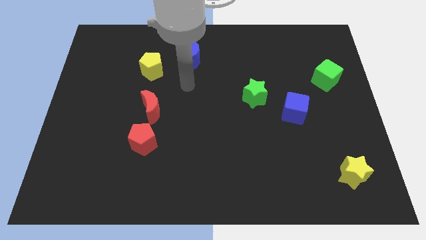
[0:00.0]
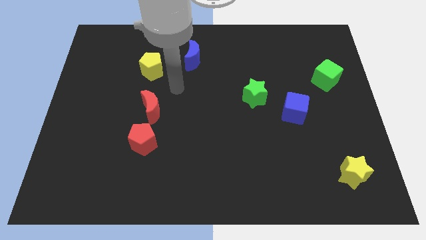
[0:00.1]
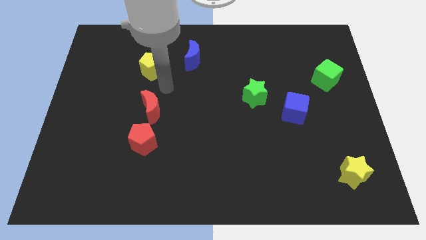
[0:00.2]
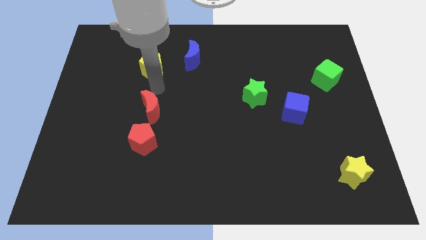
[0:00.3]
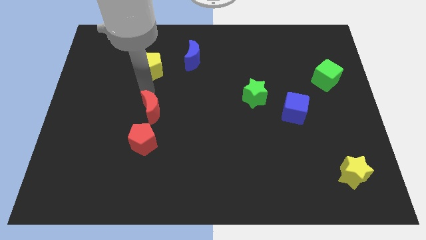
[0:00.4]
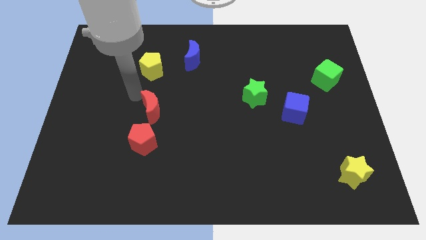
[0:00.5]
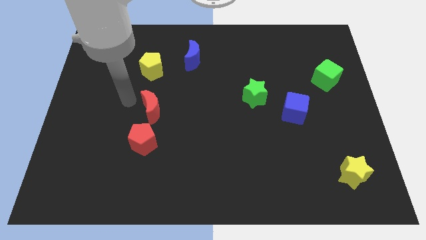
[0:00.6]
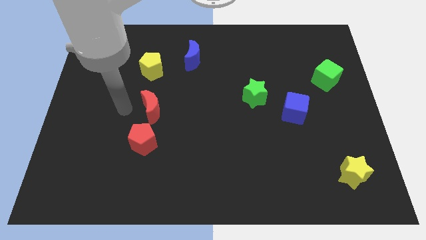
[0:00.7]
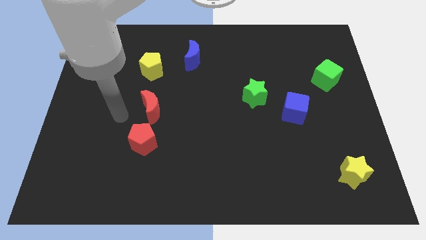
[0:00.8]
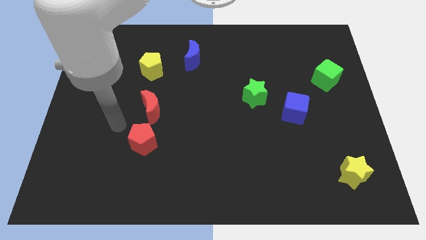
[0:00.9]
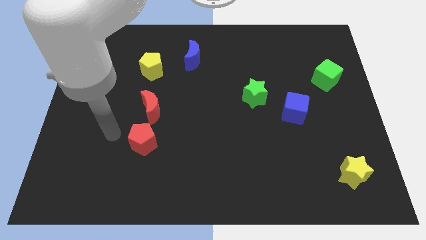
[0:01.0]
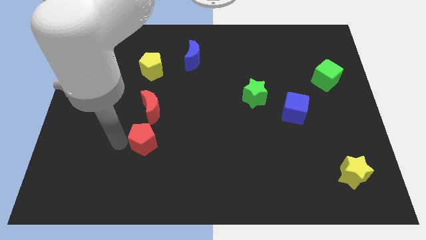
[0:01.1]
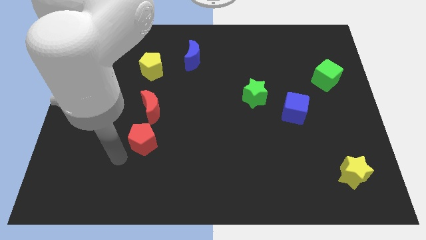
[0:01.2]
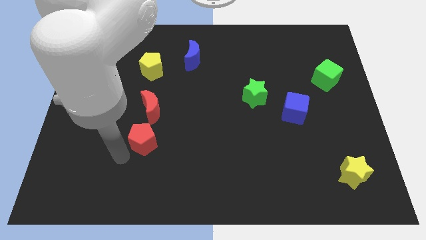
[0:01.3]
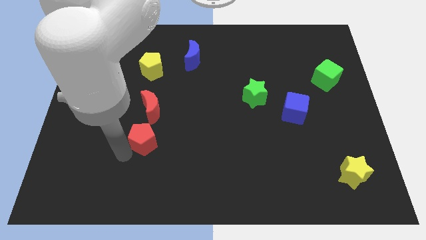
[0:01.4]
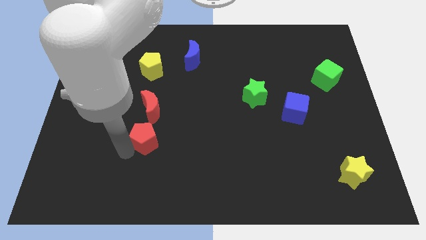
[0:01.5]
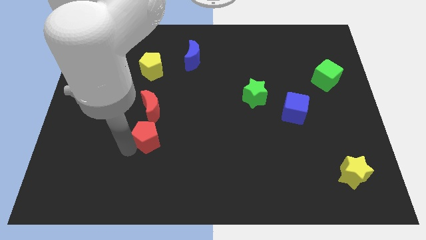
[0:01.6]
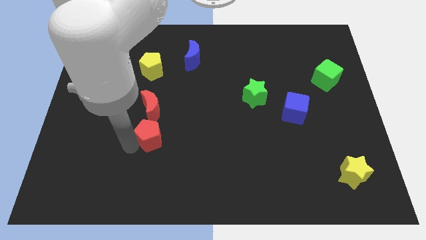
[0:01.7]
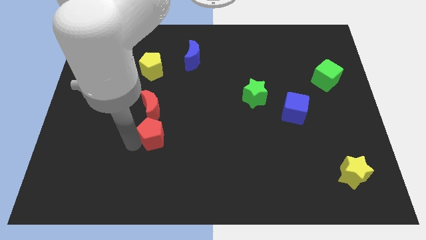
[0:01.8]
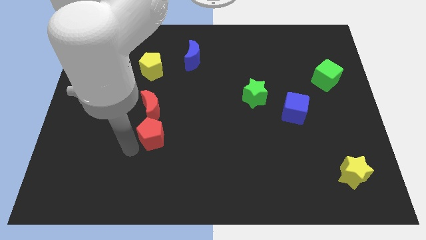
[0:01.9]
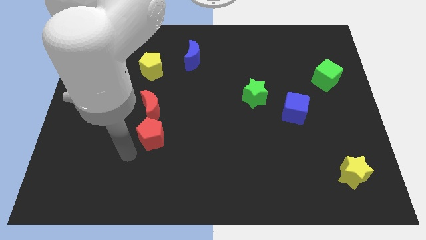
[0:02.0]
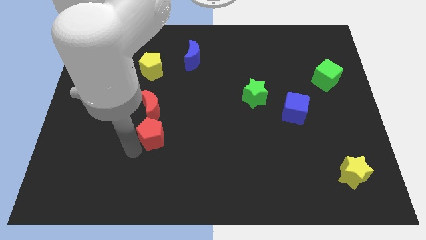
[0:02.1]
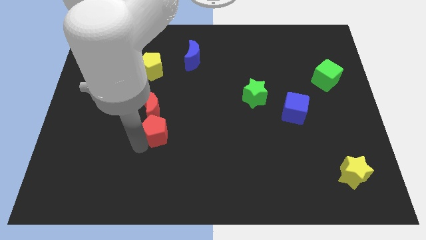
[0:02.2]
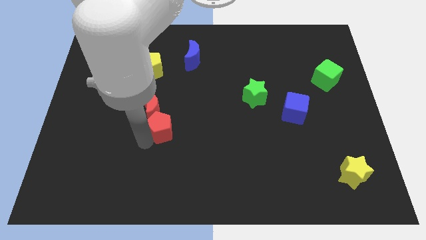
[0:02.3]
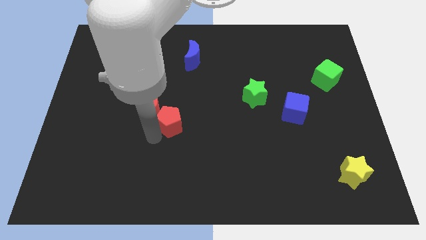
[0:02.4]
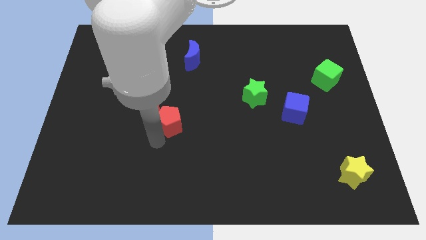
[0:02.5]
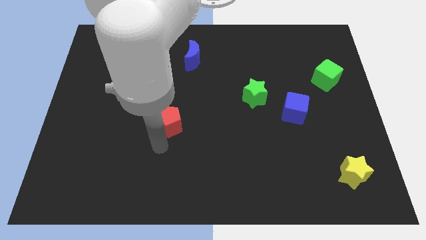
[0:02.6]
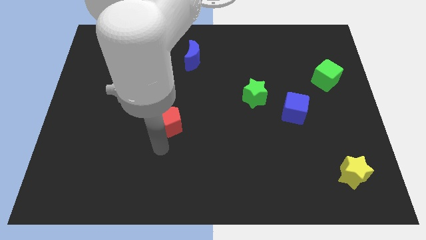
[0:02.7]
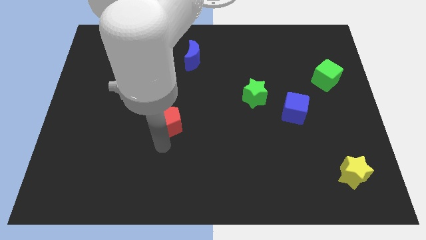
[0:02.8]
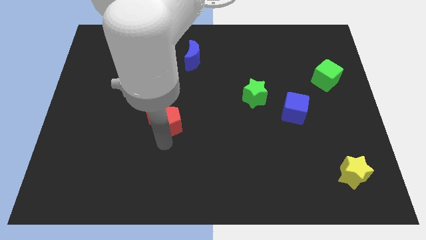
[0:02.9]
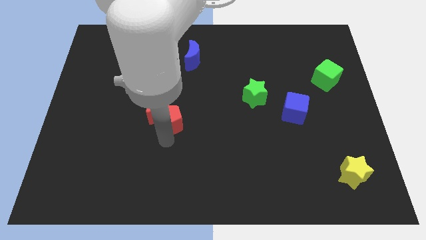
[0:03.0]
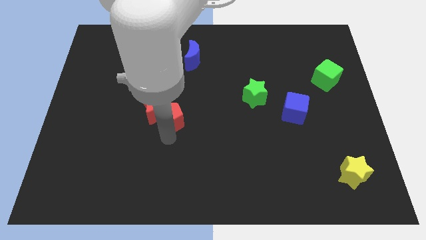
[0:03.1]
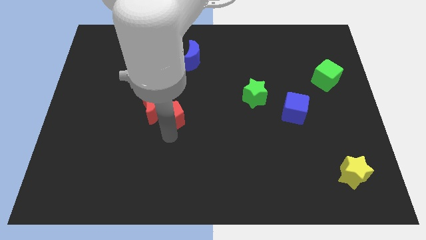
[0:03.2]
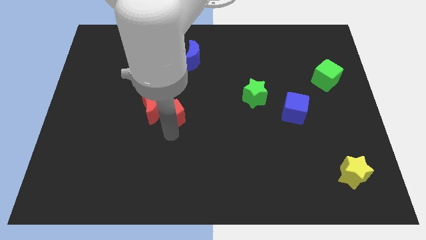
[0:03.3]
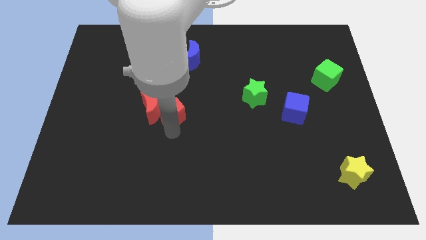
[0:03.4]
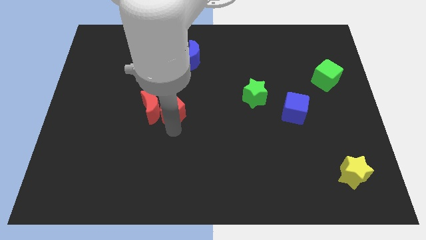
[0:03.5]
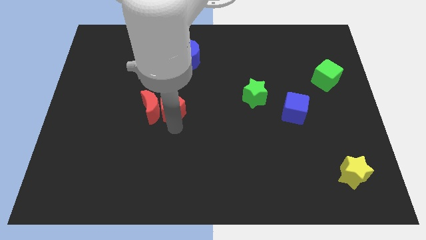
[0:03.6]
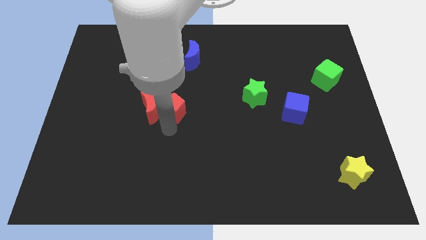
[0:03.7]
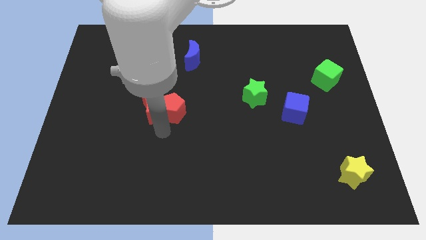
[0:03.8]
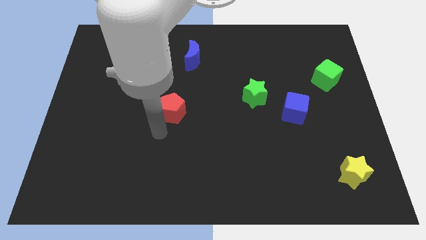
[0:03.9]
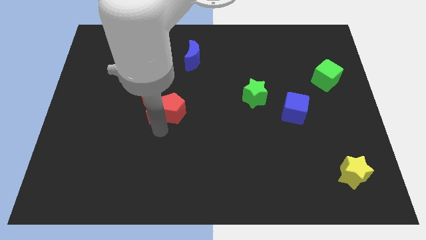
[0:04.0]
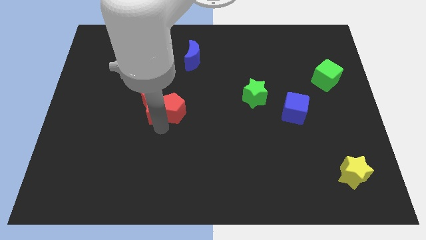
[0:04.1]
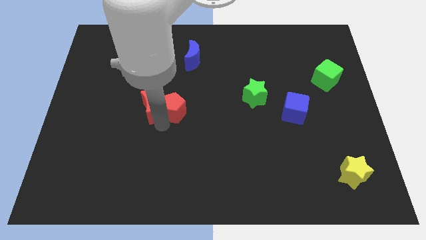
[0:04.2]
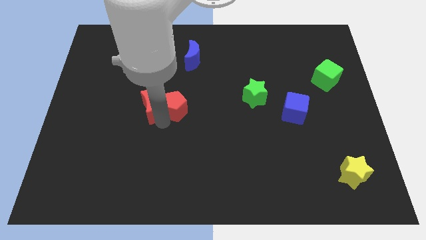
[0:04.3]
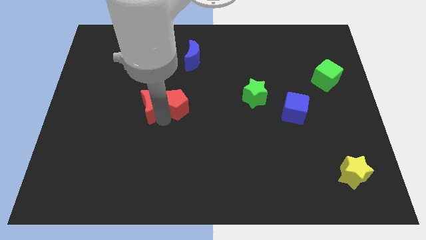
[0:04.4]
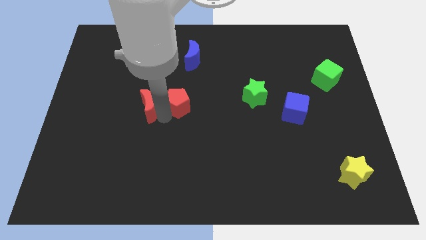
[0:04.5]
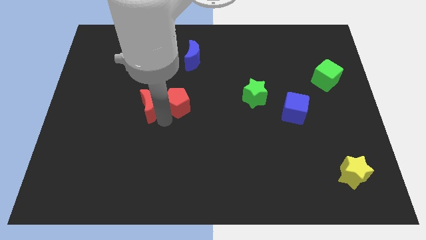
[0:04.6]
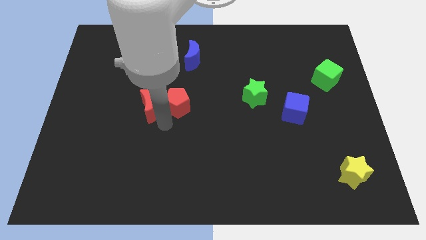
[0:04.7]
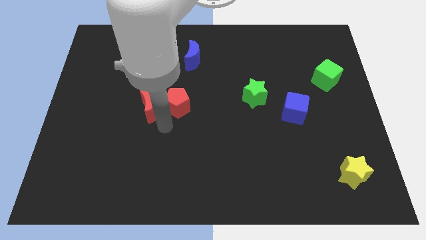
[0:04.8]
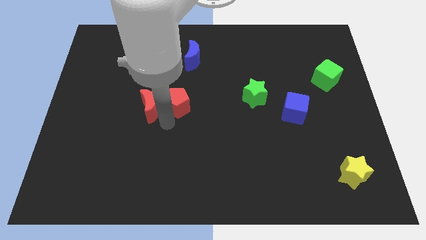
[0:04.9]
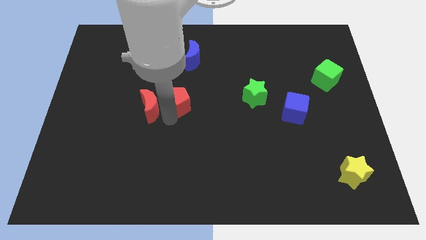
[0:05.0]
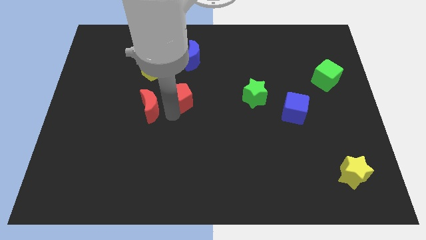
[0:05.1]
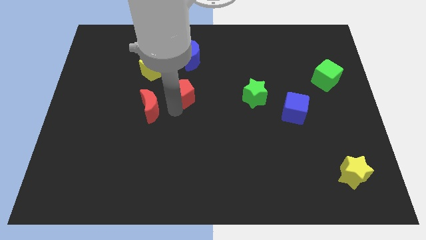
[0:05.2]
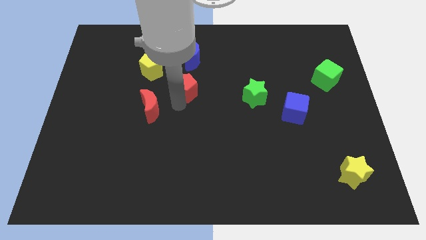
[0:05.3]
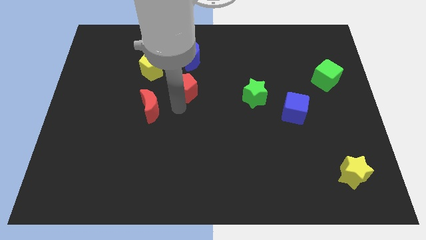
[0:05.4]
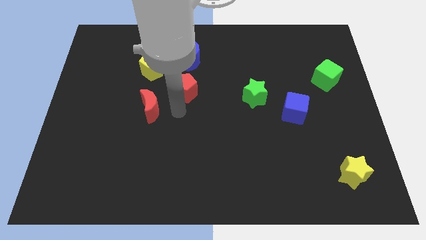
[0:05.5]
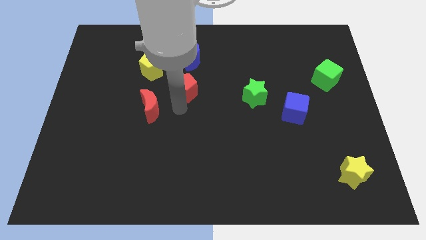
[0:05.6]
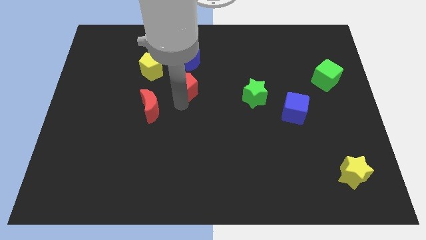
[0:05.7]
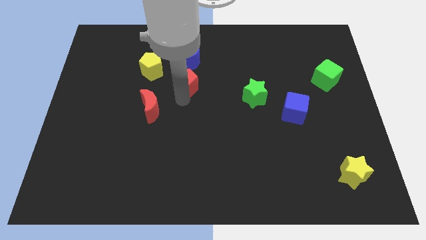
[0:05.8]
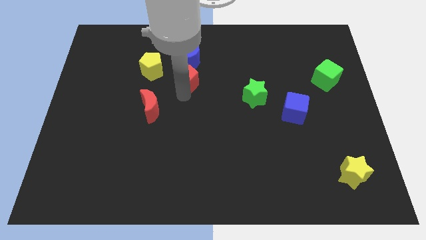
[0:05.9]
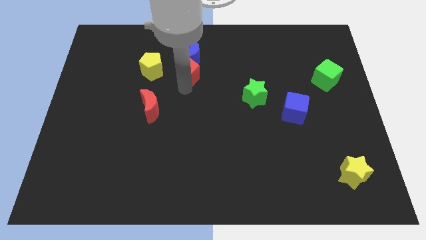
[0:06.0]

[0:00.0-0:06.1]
push the red pentagon close to the blue moon

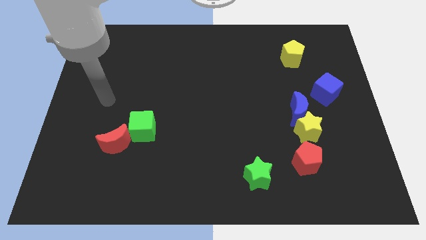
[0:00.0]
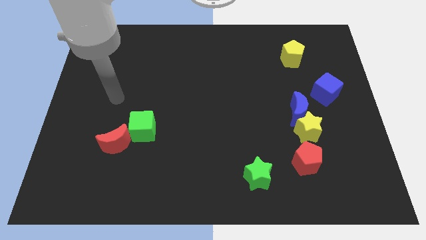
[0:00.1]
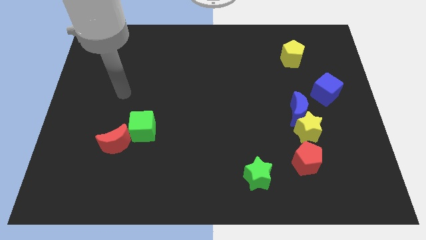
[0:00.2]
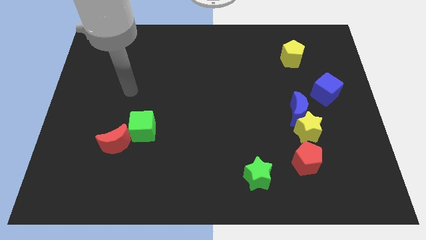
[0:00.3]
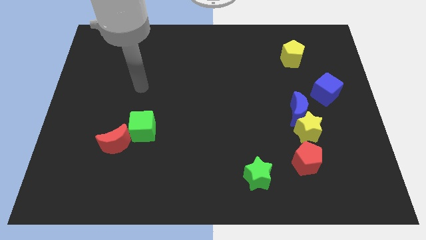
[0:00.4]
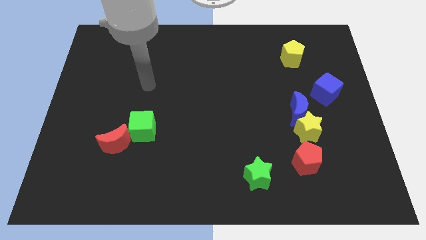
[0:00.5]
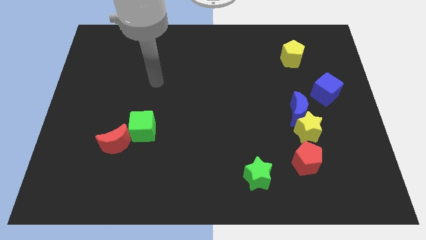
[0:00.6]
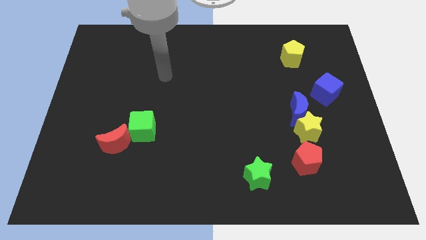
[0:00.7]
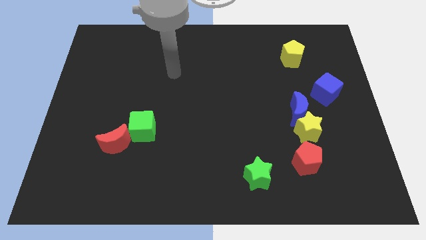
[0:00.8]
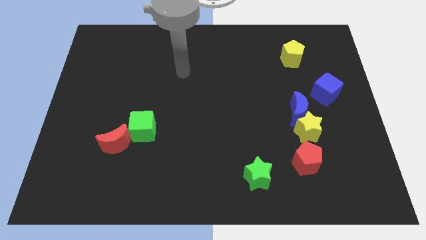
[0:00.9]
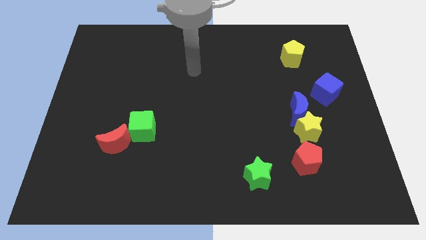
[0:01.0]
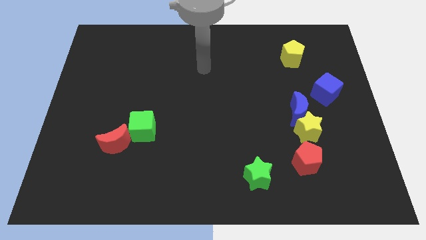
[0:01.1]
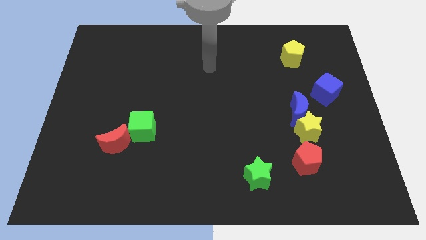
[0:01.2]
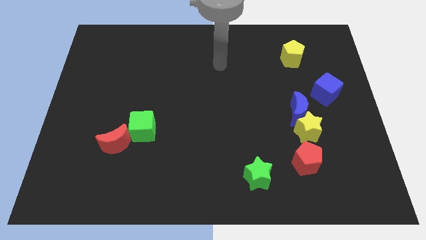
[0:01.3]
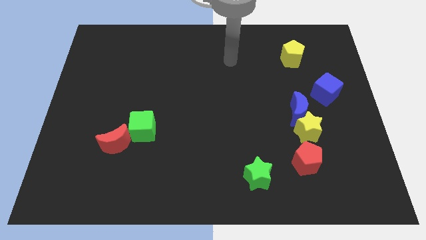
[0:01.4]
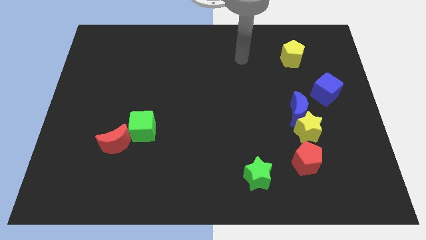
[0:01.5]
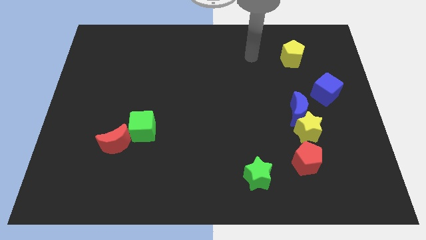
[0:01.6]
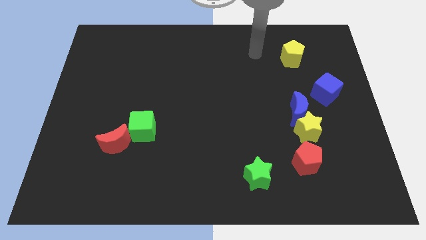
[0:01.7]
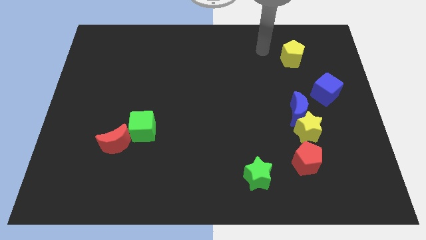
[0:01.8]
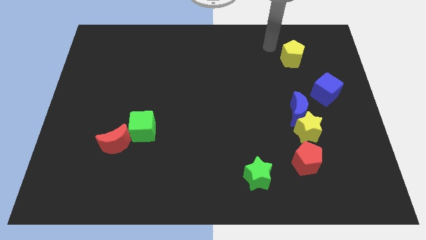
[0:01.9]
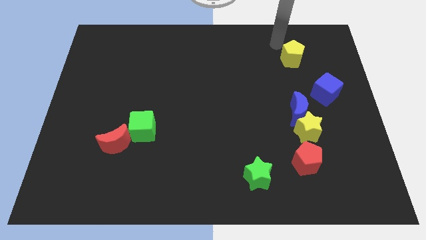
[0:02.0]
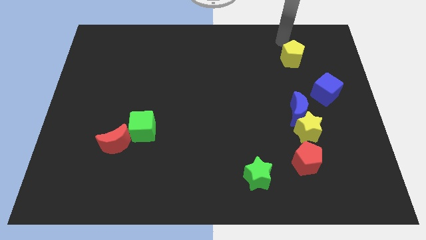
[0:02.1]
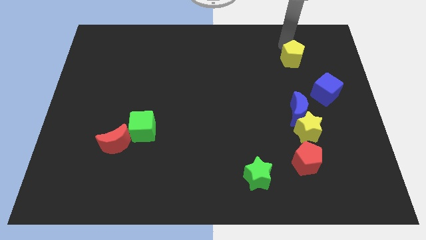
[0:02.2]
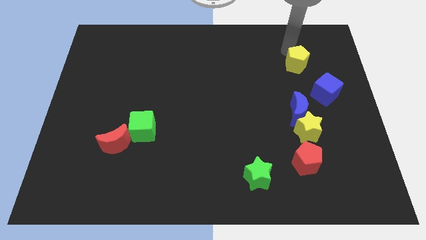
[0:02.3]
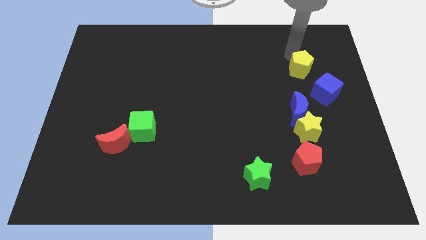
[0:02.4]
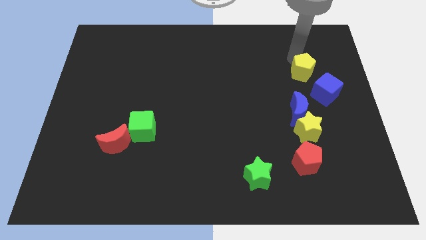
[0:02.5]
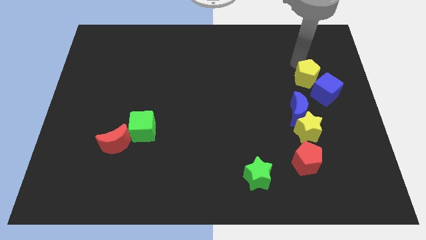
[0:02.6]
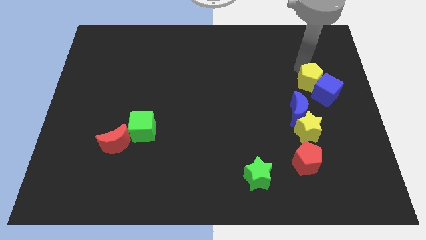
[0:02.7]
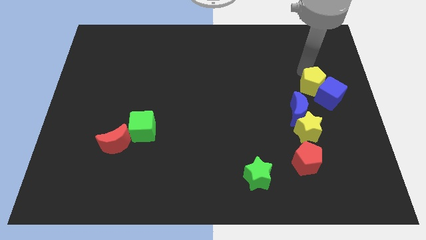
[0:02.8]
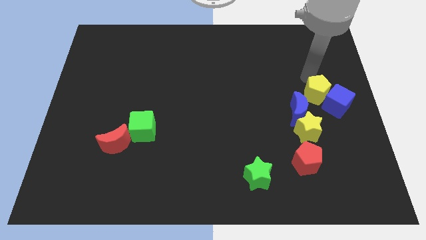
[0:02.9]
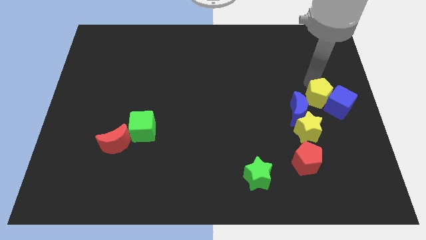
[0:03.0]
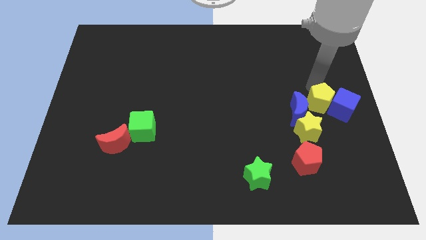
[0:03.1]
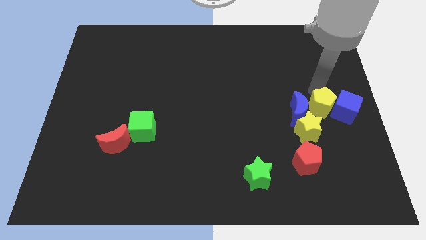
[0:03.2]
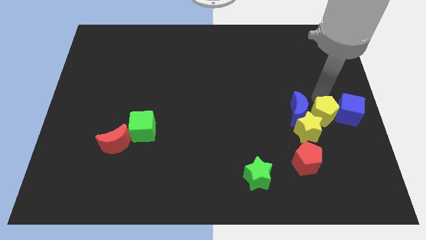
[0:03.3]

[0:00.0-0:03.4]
push the yellow pentagon close to the yellow star
